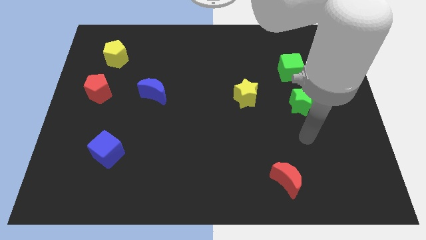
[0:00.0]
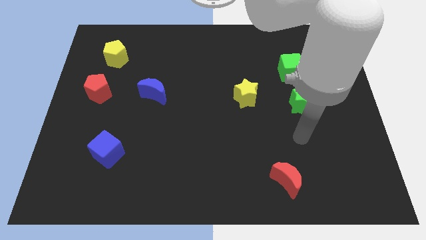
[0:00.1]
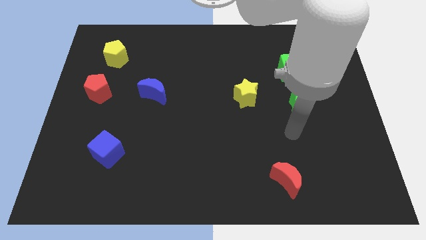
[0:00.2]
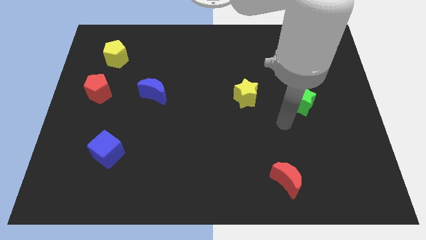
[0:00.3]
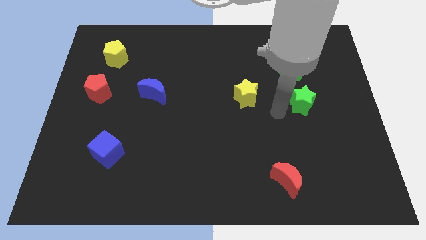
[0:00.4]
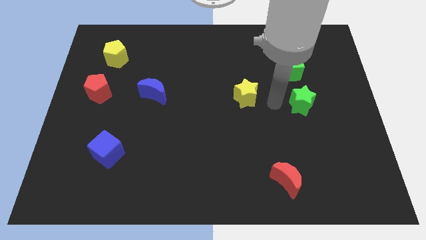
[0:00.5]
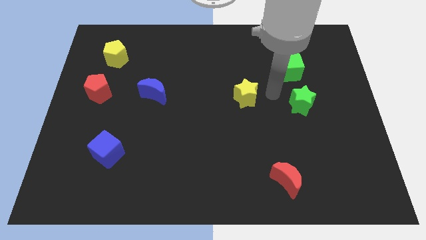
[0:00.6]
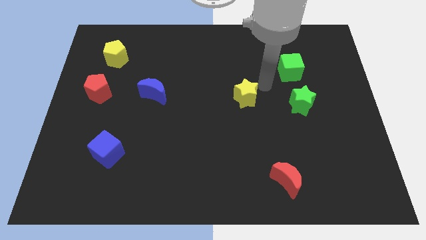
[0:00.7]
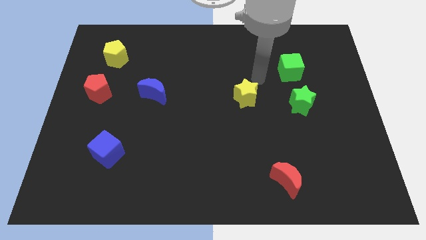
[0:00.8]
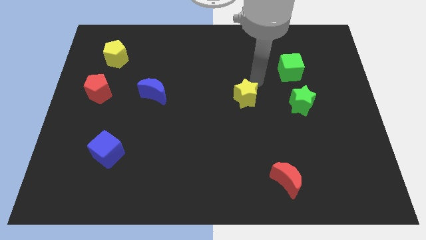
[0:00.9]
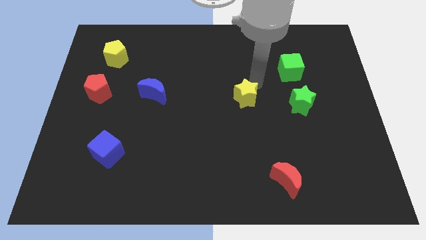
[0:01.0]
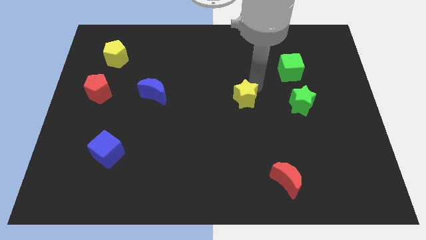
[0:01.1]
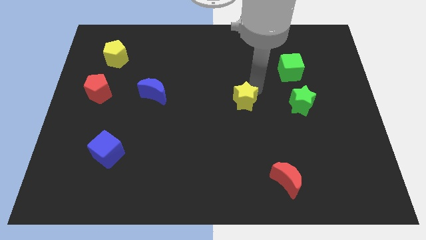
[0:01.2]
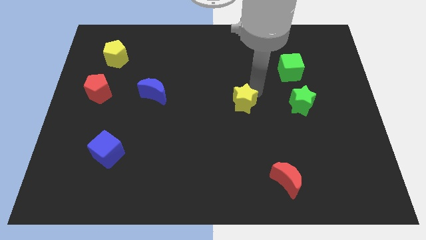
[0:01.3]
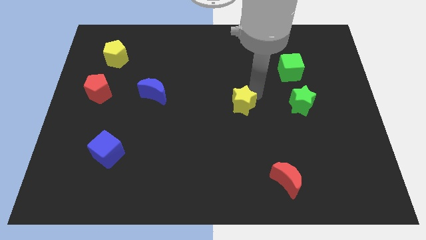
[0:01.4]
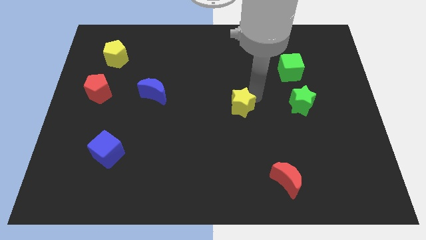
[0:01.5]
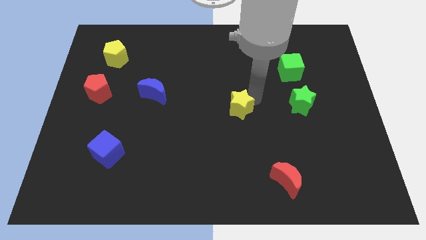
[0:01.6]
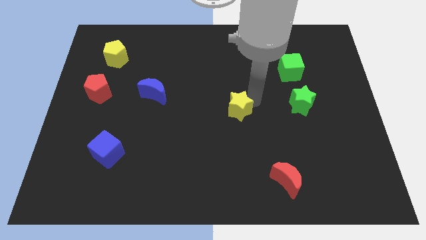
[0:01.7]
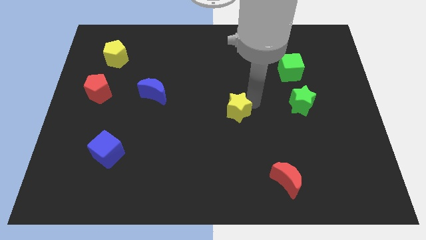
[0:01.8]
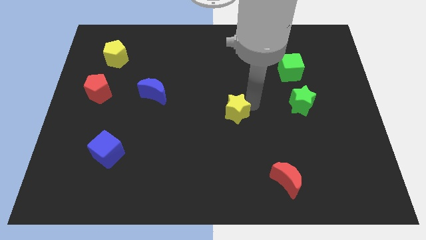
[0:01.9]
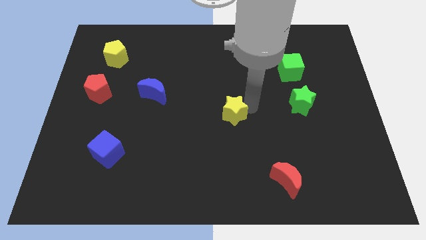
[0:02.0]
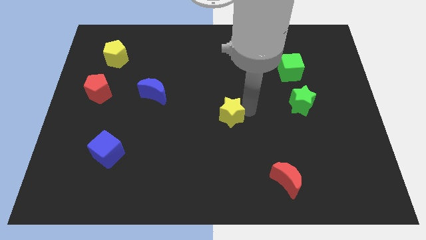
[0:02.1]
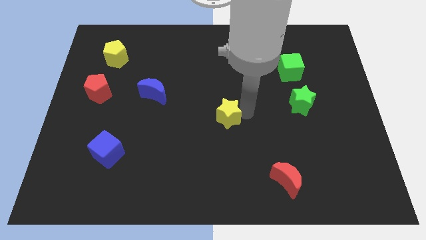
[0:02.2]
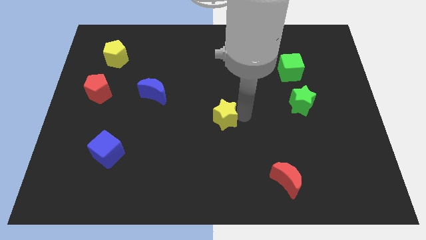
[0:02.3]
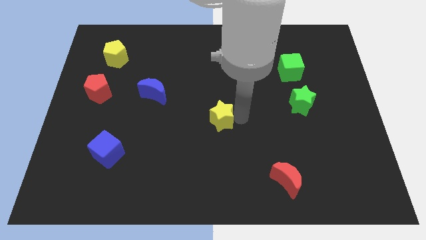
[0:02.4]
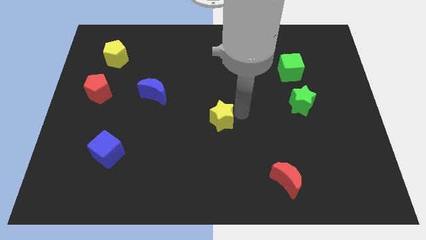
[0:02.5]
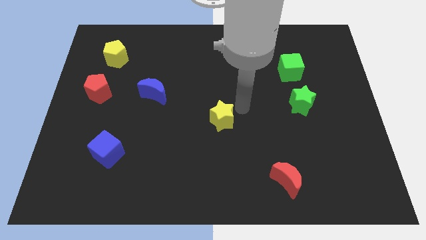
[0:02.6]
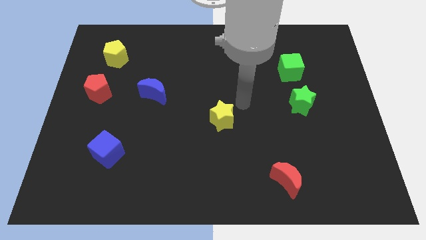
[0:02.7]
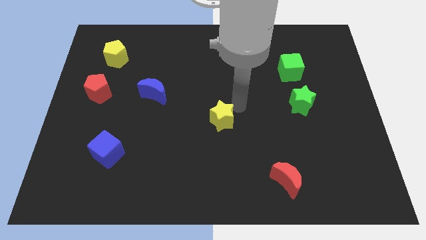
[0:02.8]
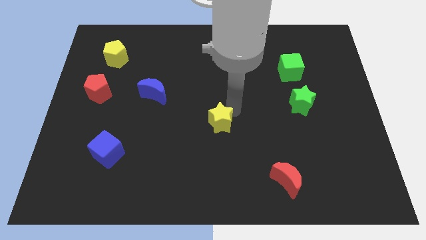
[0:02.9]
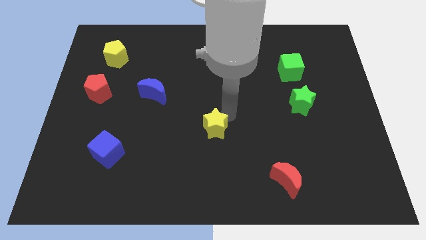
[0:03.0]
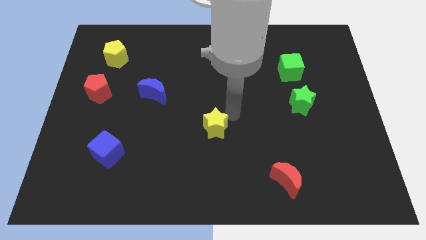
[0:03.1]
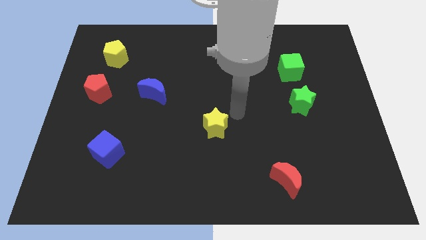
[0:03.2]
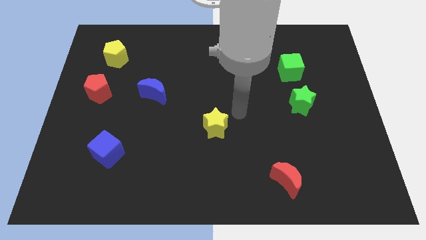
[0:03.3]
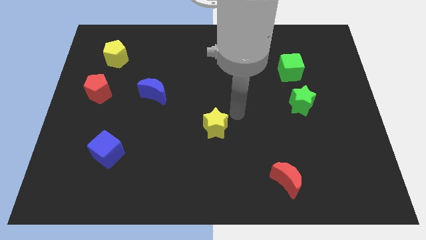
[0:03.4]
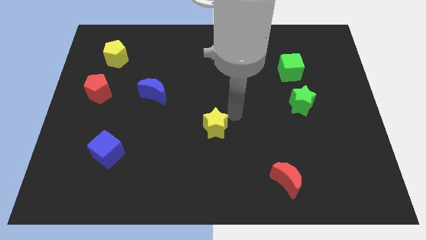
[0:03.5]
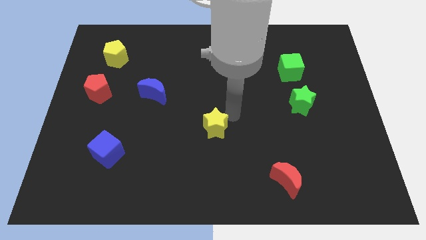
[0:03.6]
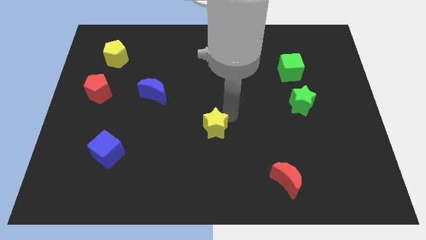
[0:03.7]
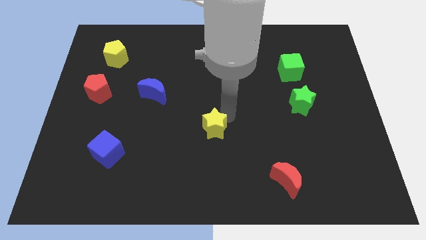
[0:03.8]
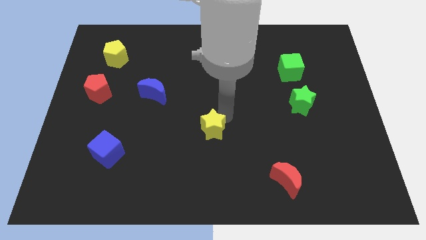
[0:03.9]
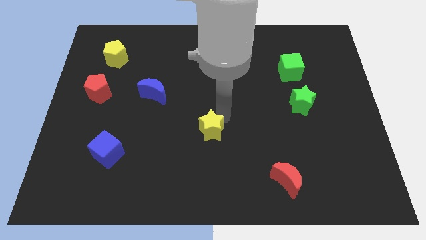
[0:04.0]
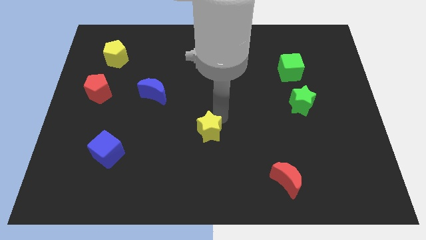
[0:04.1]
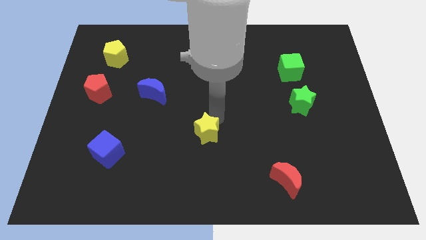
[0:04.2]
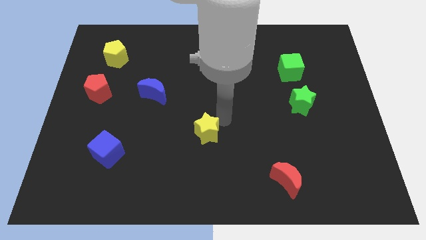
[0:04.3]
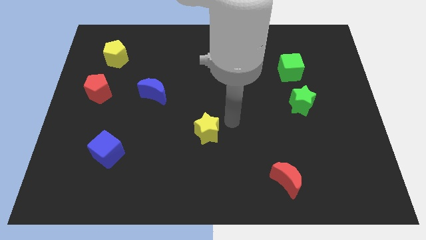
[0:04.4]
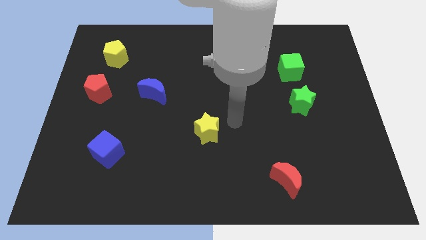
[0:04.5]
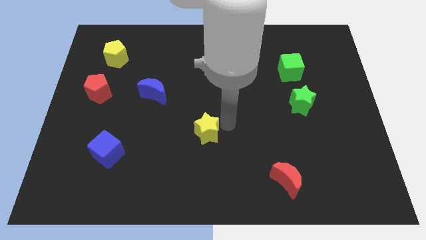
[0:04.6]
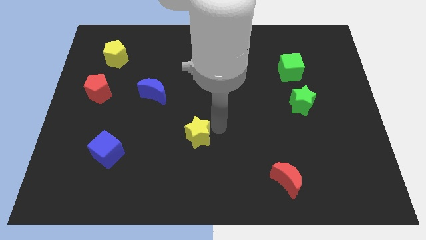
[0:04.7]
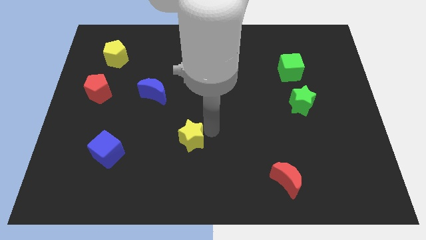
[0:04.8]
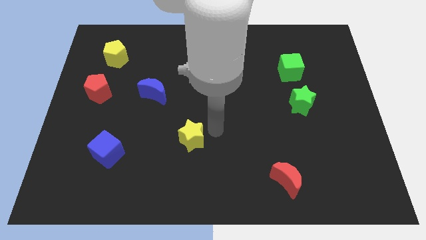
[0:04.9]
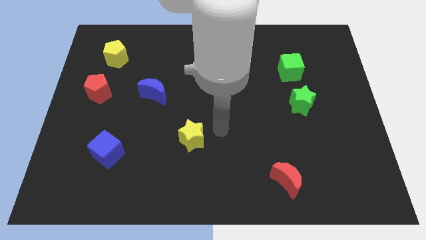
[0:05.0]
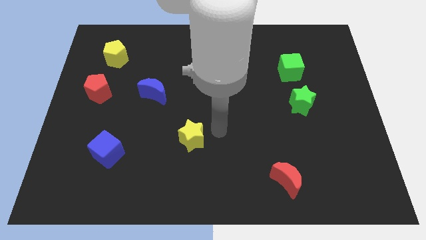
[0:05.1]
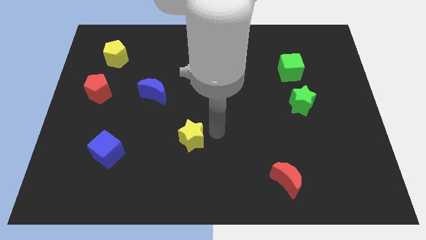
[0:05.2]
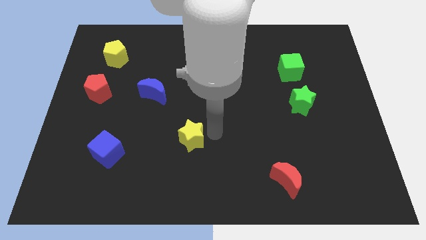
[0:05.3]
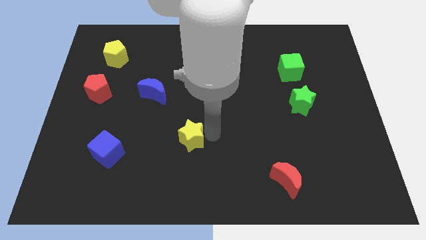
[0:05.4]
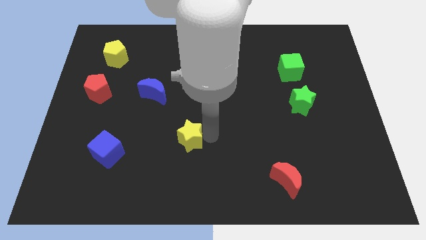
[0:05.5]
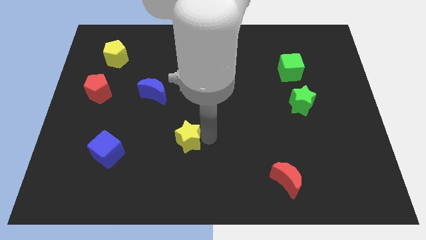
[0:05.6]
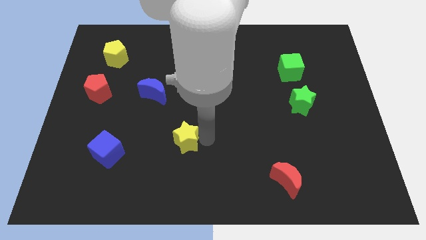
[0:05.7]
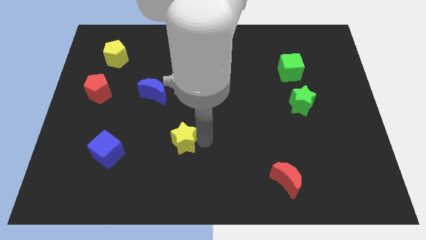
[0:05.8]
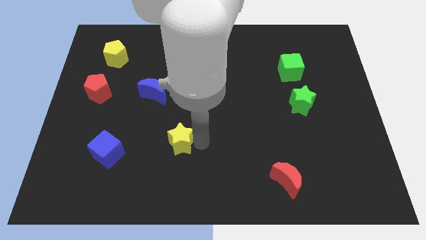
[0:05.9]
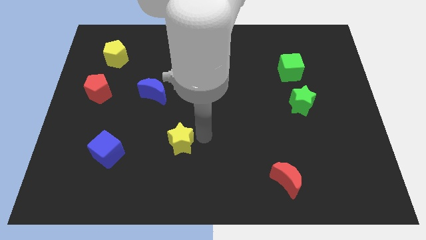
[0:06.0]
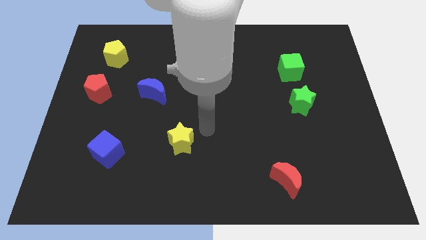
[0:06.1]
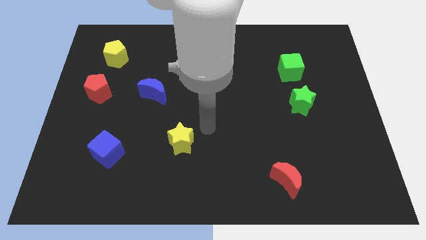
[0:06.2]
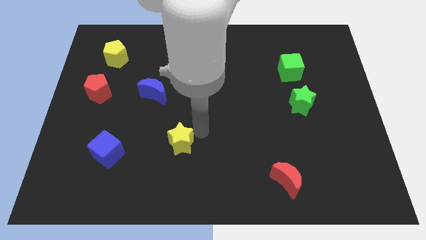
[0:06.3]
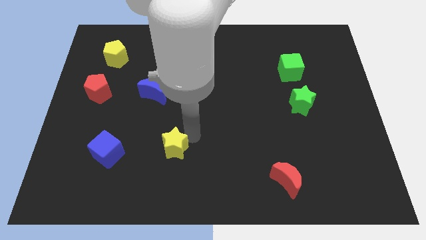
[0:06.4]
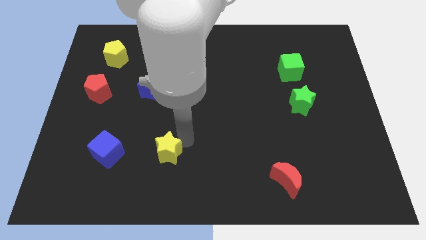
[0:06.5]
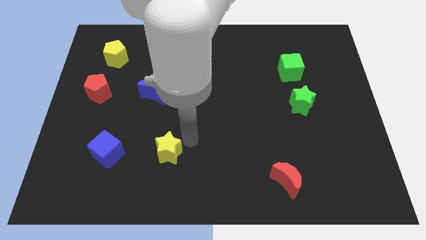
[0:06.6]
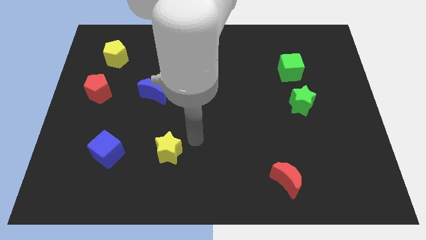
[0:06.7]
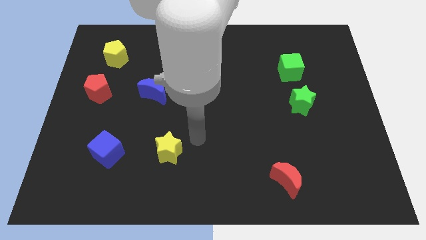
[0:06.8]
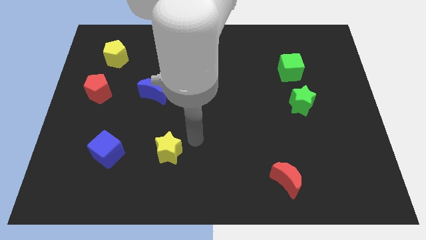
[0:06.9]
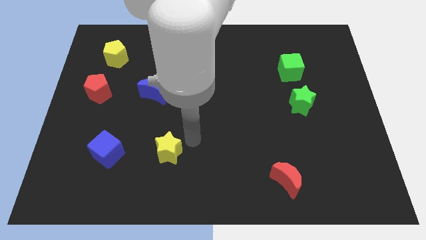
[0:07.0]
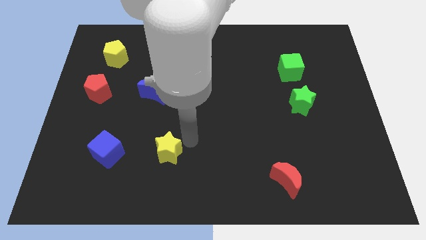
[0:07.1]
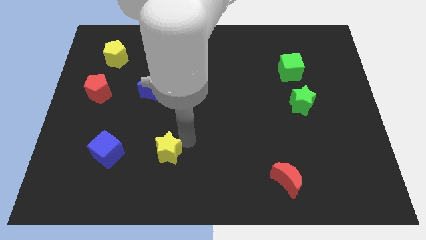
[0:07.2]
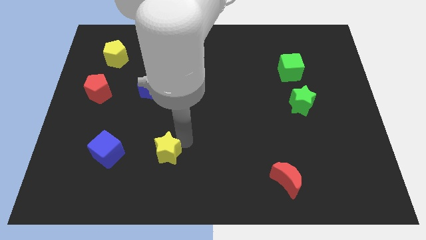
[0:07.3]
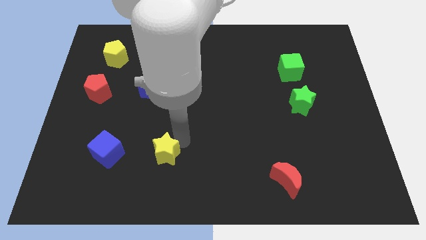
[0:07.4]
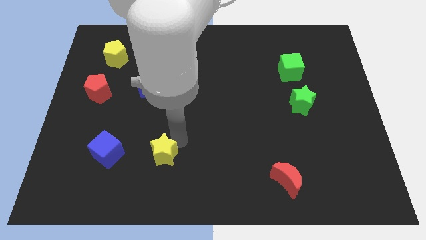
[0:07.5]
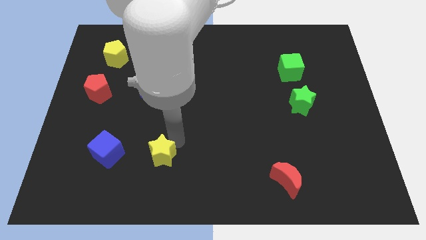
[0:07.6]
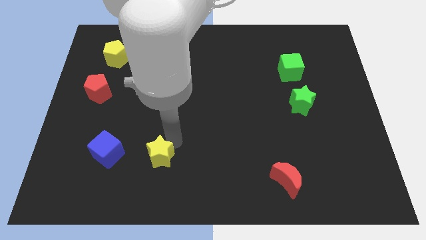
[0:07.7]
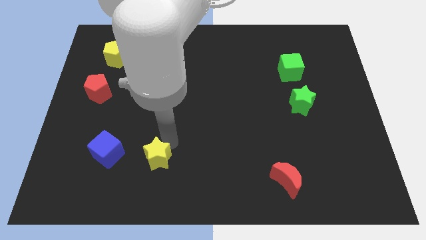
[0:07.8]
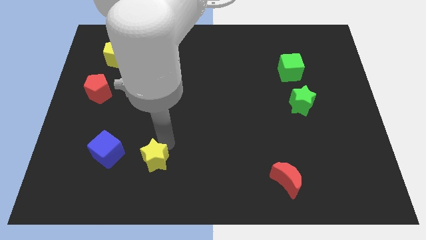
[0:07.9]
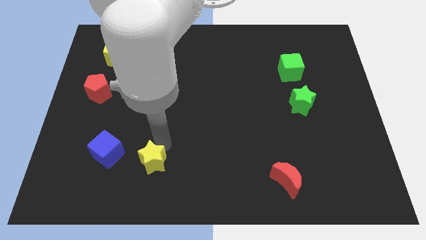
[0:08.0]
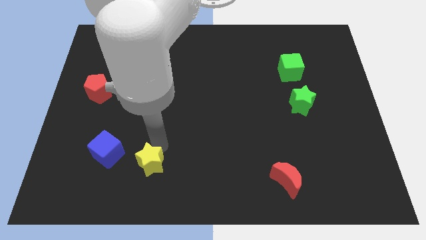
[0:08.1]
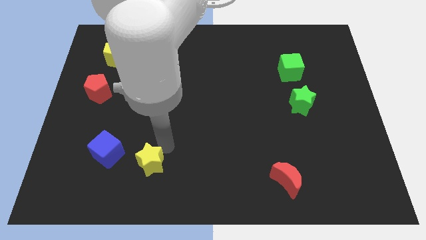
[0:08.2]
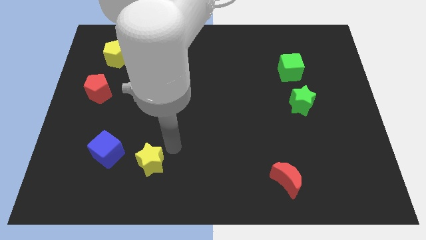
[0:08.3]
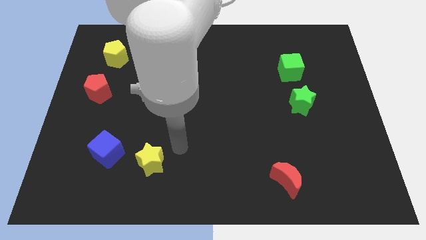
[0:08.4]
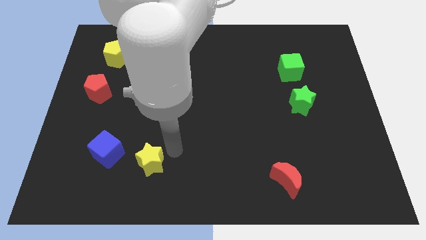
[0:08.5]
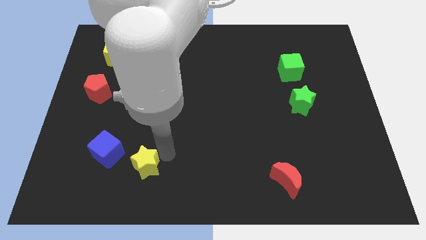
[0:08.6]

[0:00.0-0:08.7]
slide the yellow star to the bottom right of the blue cube
